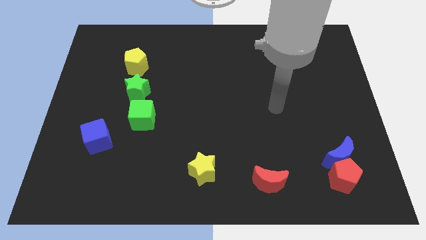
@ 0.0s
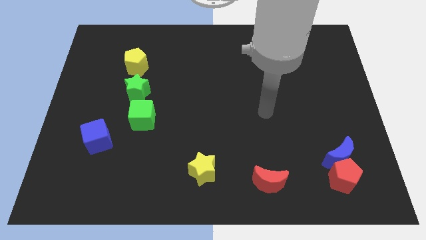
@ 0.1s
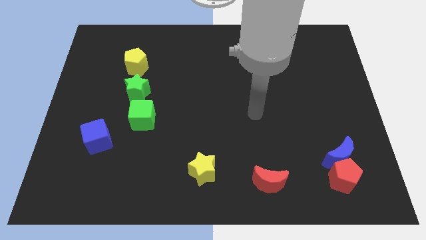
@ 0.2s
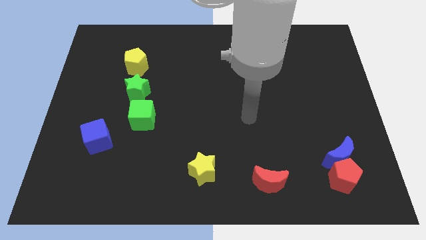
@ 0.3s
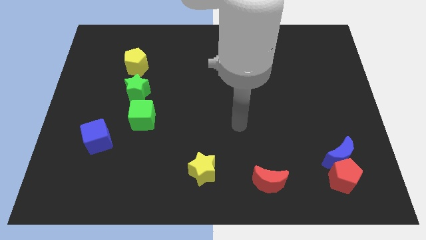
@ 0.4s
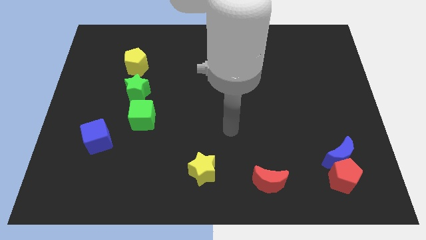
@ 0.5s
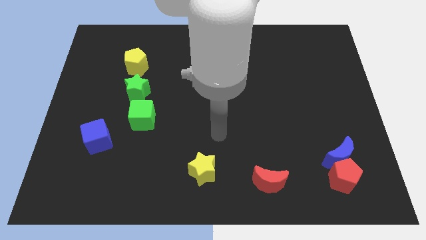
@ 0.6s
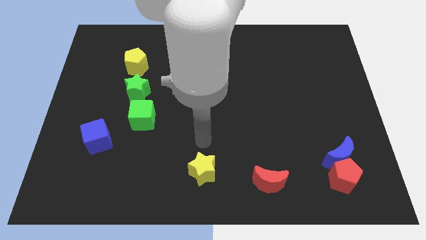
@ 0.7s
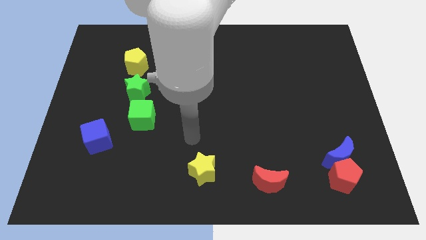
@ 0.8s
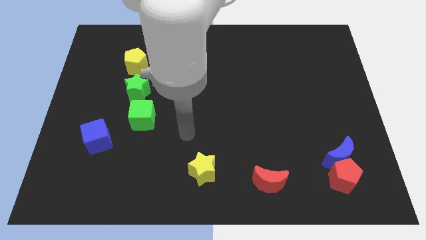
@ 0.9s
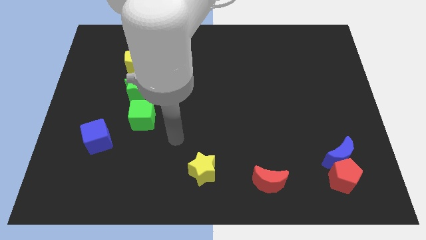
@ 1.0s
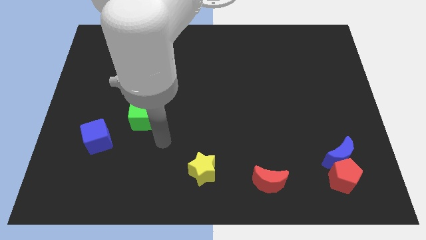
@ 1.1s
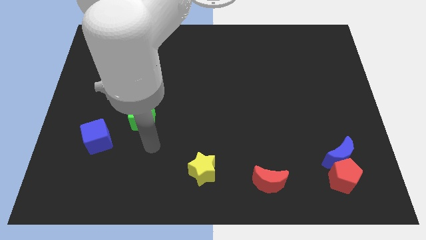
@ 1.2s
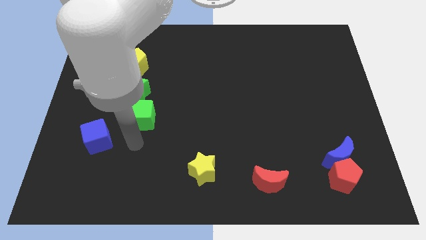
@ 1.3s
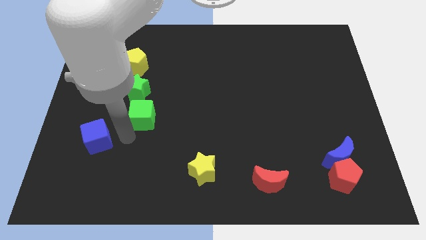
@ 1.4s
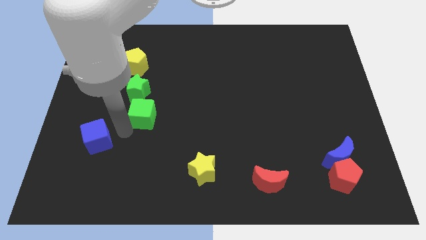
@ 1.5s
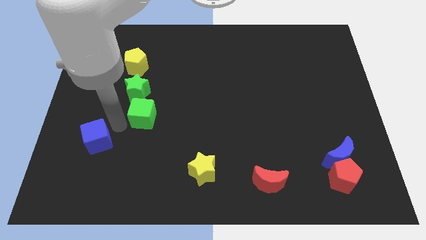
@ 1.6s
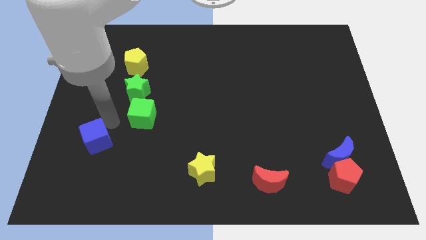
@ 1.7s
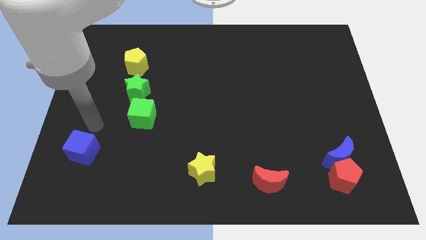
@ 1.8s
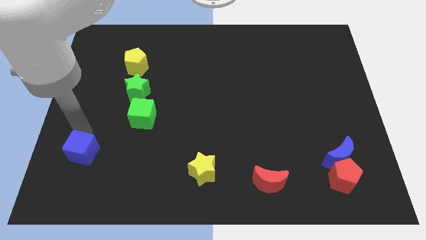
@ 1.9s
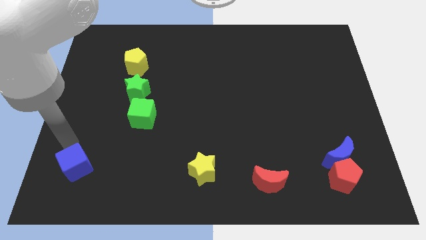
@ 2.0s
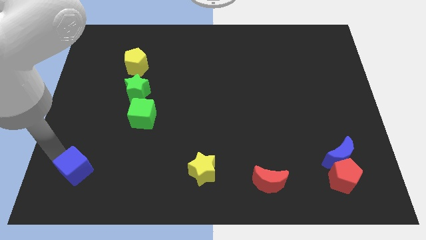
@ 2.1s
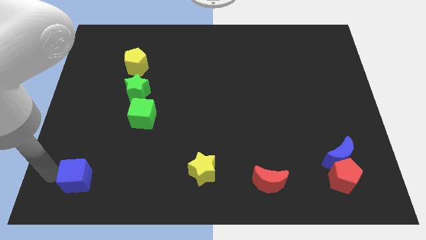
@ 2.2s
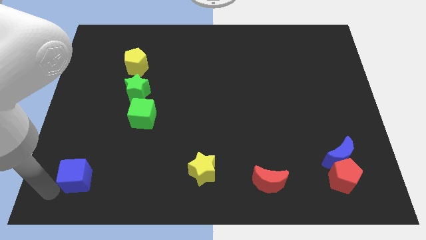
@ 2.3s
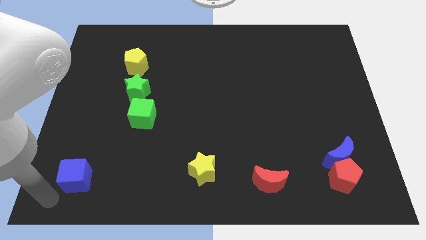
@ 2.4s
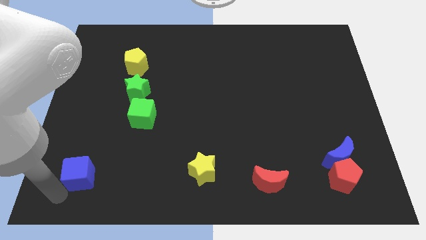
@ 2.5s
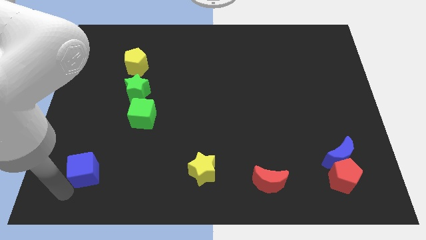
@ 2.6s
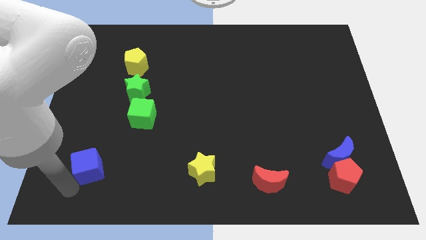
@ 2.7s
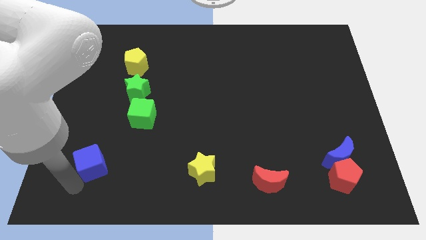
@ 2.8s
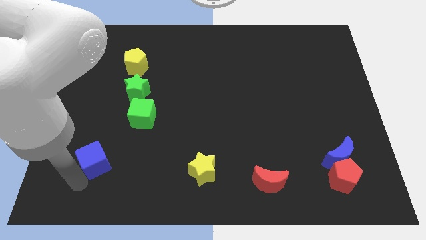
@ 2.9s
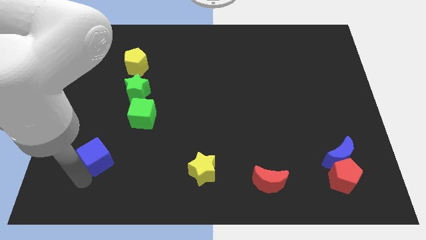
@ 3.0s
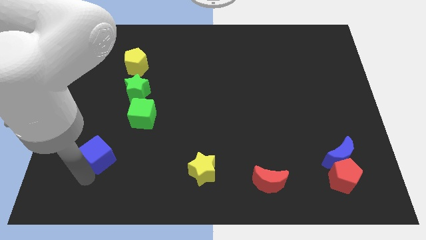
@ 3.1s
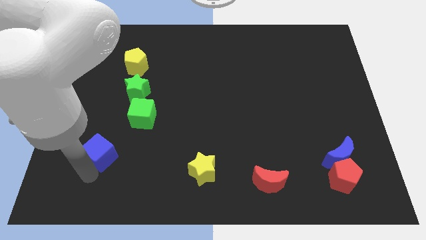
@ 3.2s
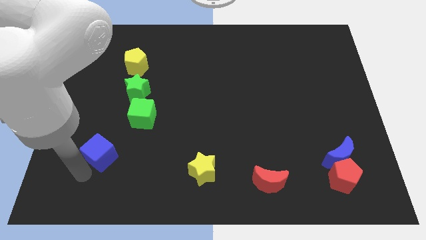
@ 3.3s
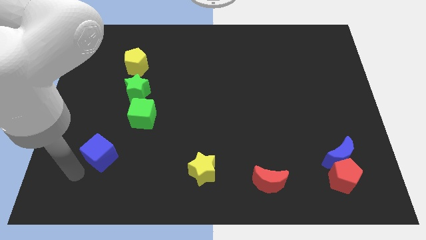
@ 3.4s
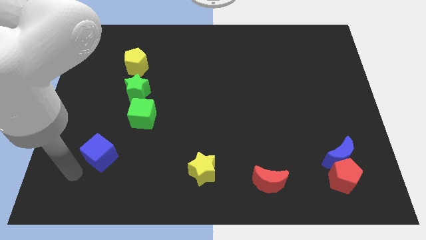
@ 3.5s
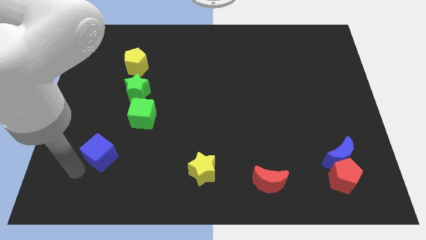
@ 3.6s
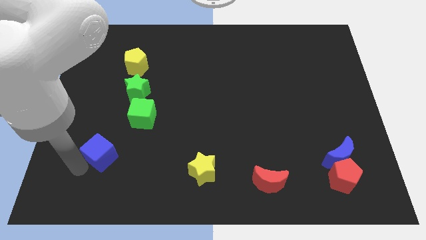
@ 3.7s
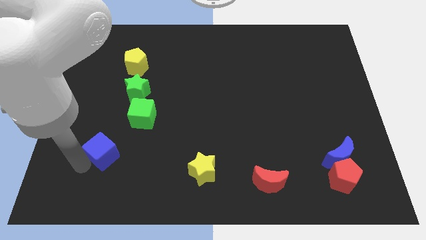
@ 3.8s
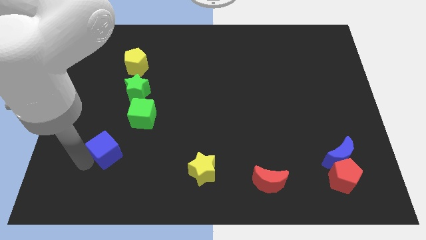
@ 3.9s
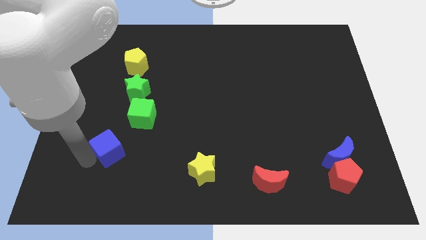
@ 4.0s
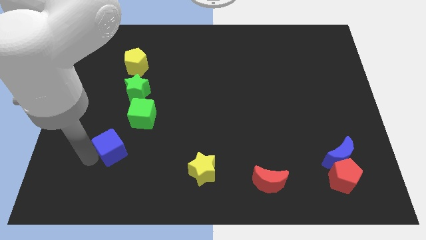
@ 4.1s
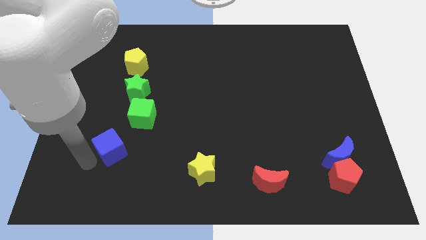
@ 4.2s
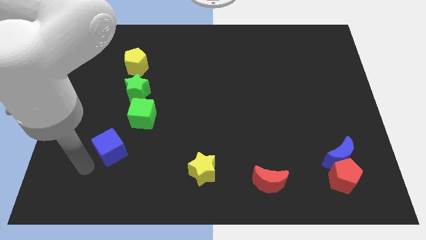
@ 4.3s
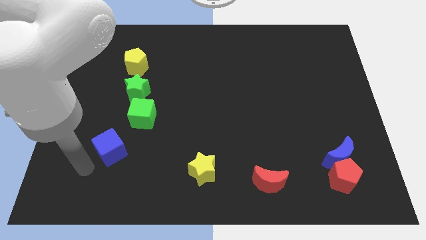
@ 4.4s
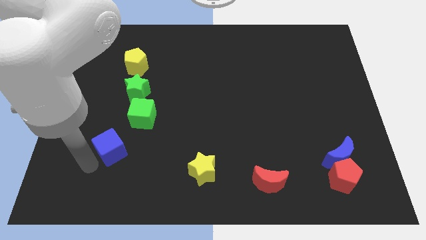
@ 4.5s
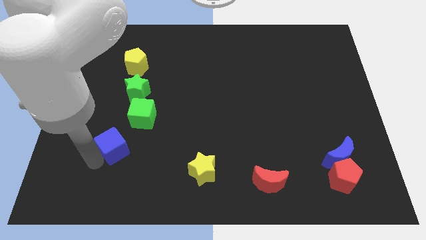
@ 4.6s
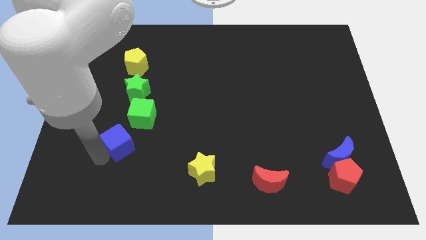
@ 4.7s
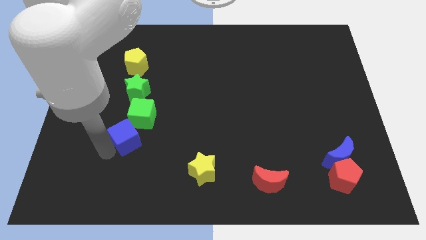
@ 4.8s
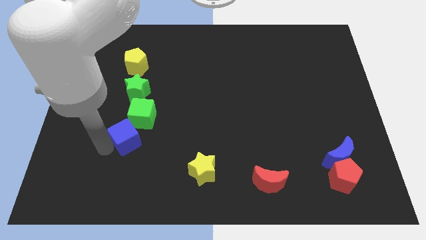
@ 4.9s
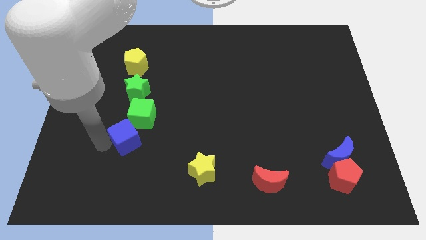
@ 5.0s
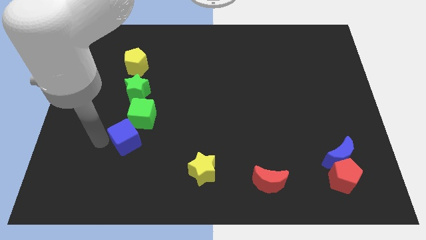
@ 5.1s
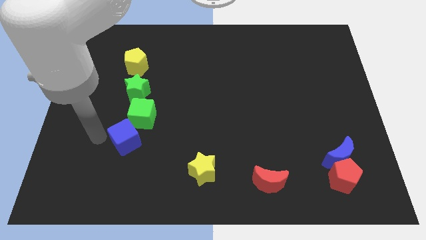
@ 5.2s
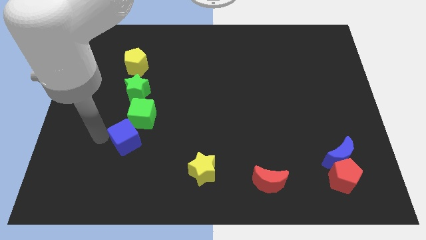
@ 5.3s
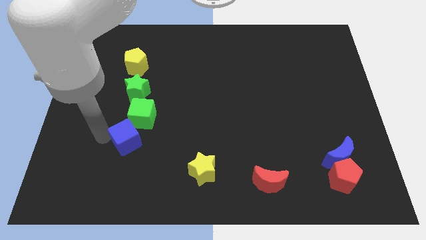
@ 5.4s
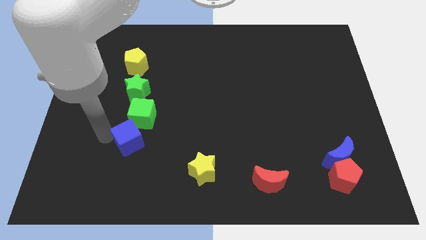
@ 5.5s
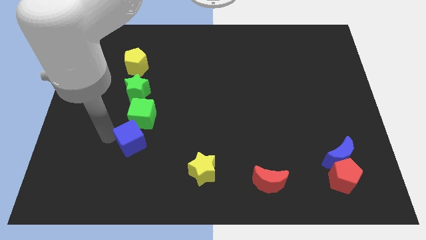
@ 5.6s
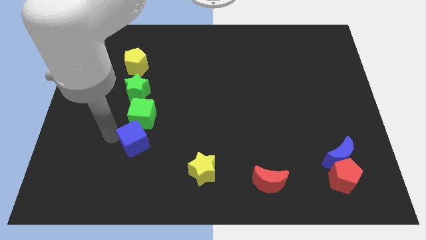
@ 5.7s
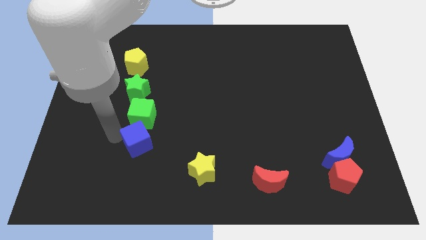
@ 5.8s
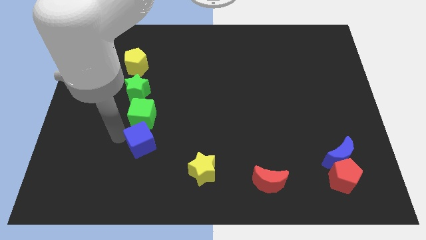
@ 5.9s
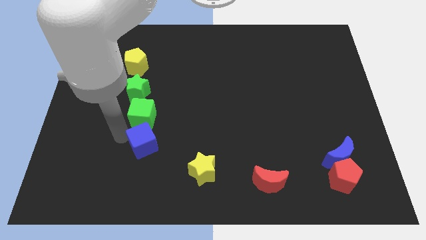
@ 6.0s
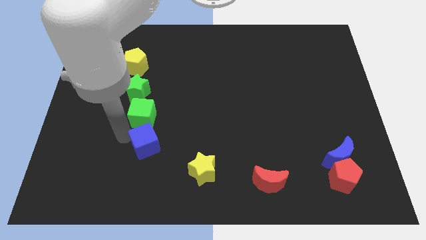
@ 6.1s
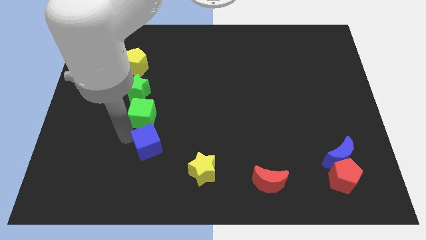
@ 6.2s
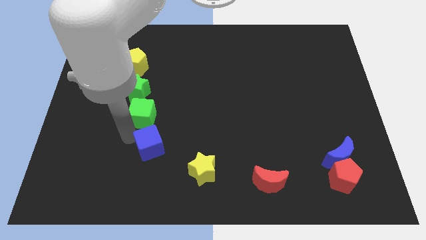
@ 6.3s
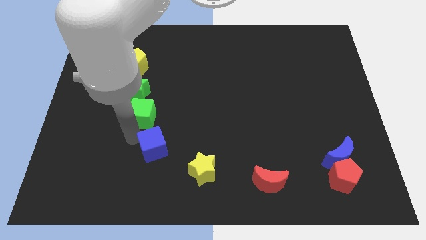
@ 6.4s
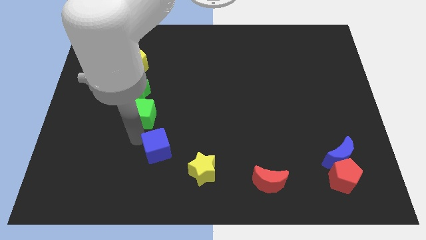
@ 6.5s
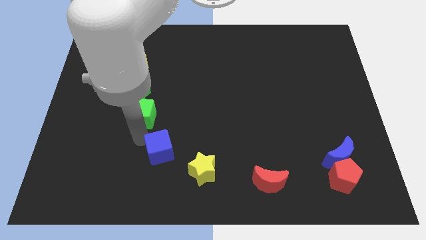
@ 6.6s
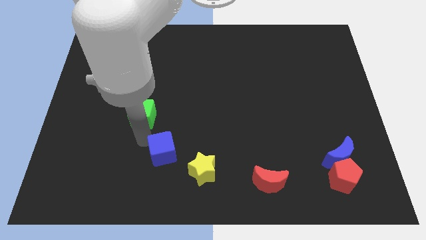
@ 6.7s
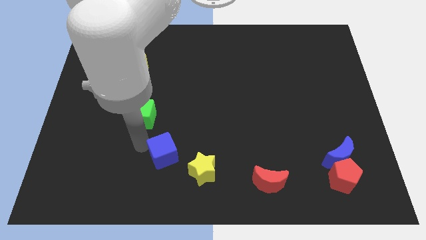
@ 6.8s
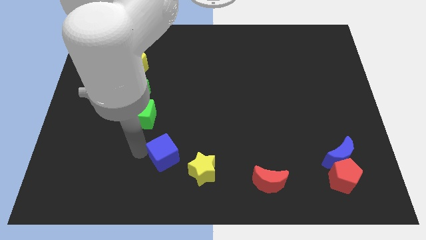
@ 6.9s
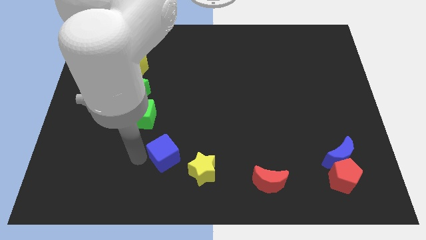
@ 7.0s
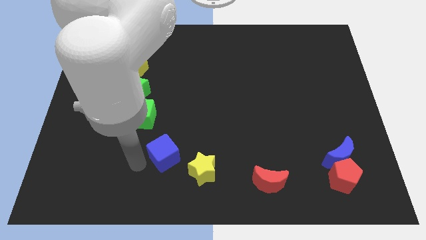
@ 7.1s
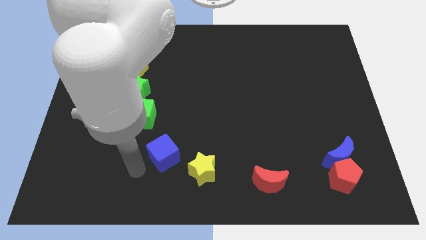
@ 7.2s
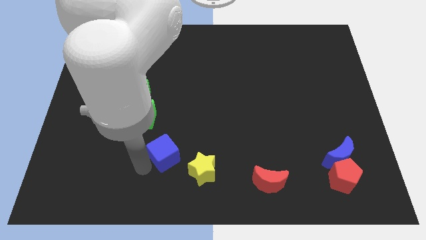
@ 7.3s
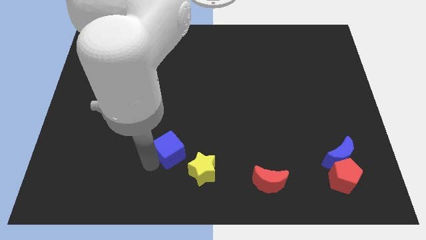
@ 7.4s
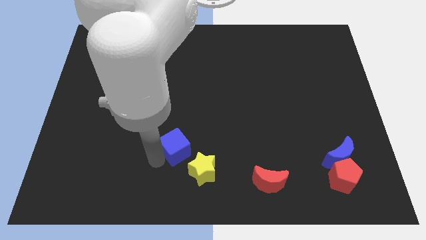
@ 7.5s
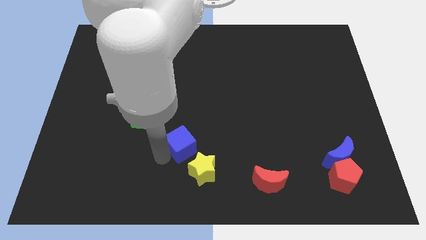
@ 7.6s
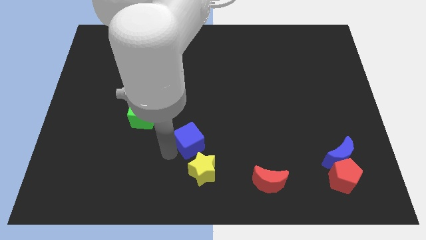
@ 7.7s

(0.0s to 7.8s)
slide the blue cube right

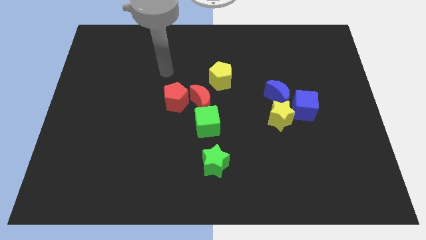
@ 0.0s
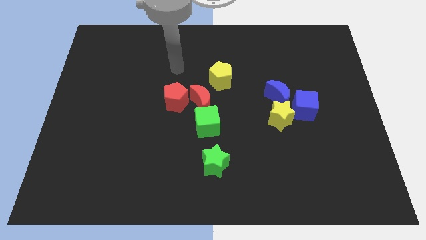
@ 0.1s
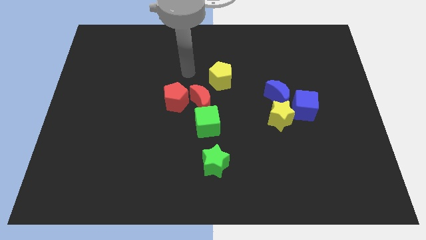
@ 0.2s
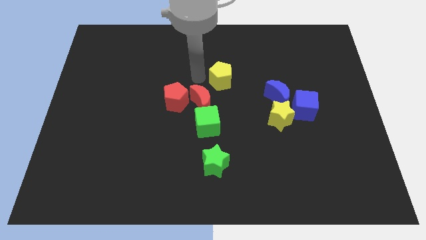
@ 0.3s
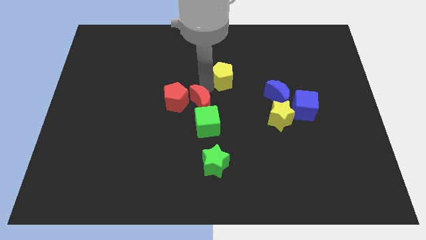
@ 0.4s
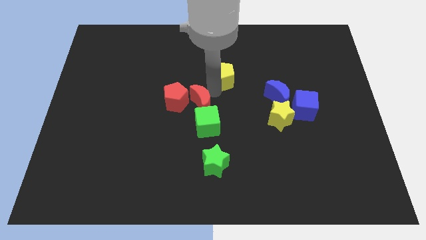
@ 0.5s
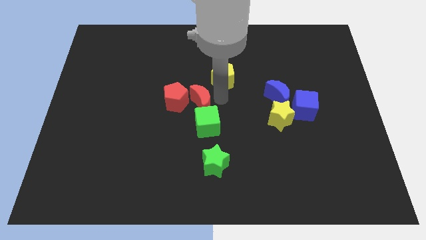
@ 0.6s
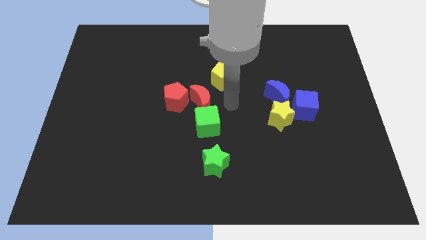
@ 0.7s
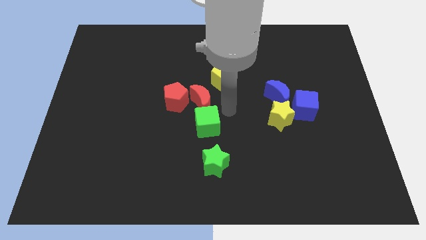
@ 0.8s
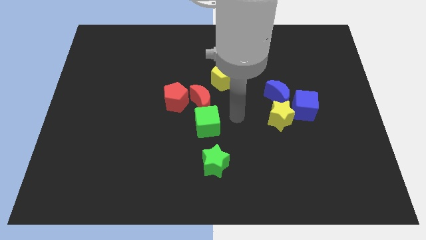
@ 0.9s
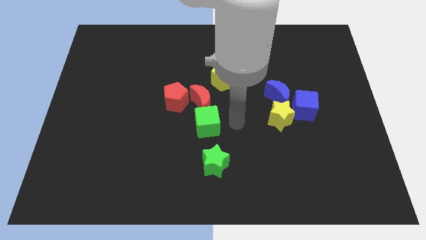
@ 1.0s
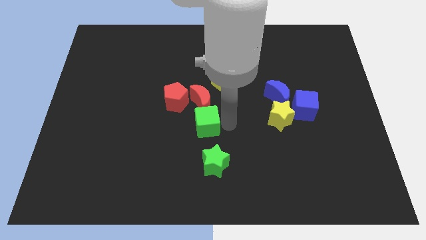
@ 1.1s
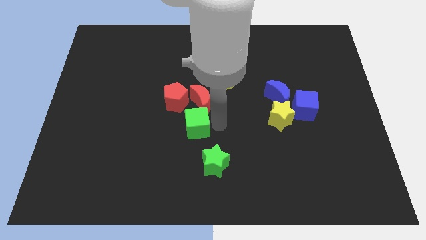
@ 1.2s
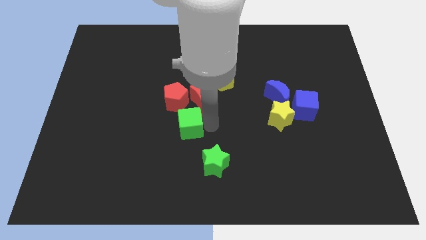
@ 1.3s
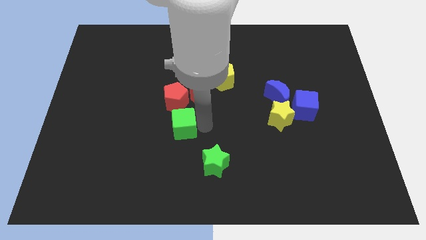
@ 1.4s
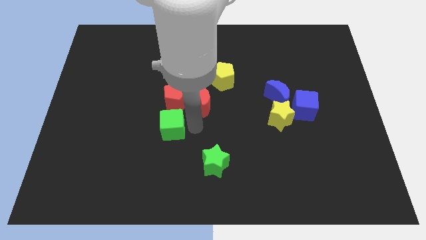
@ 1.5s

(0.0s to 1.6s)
move the green cube somewhat to the left
